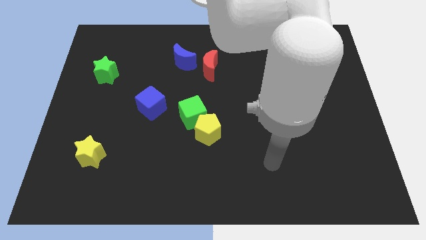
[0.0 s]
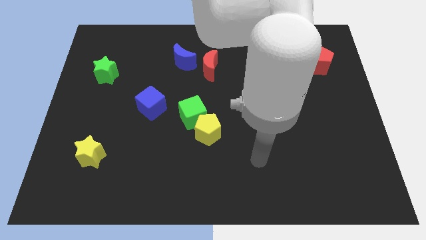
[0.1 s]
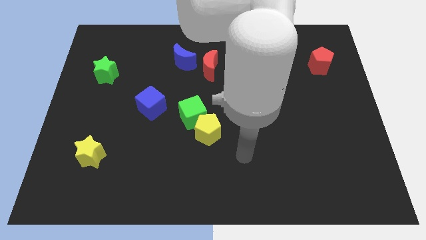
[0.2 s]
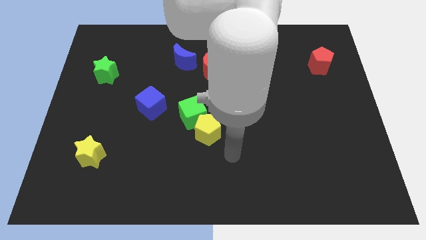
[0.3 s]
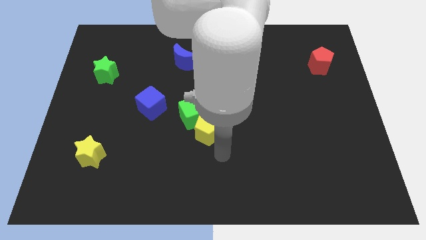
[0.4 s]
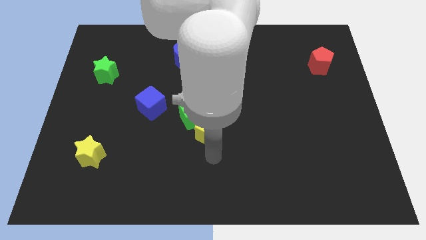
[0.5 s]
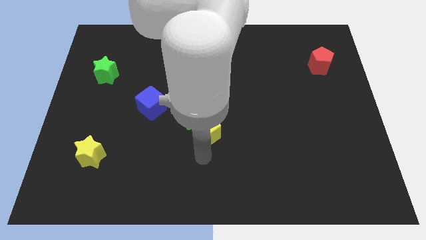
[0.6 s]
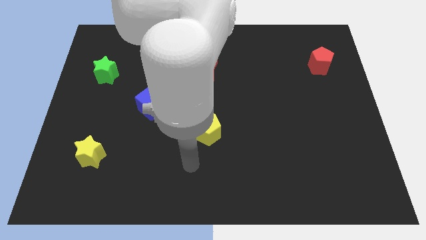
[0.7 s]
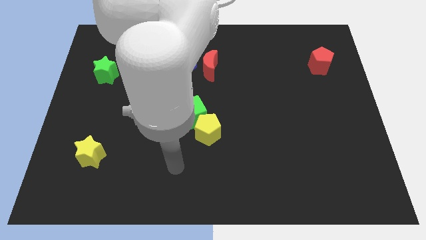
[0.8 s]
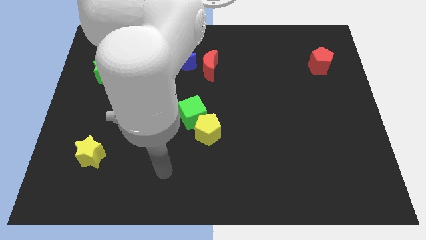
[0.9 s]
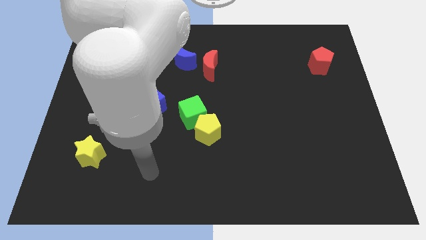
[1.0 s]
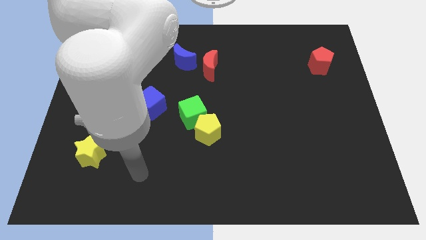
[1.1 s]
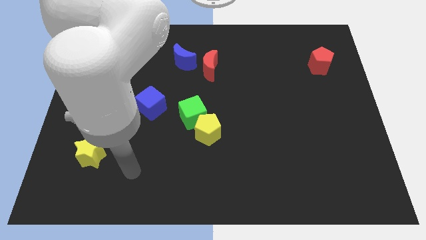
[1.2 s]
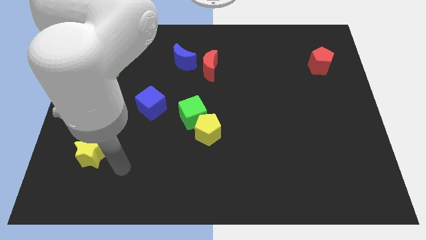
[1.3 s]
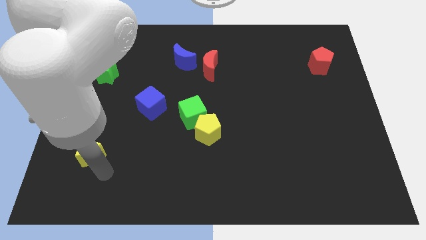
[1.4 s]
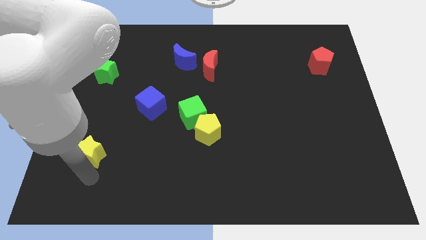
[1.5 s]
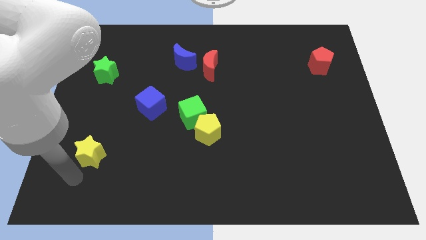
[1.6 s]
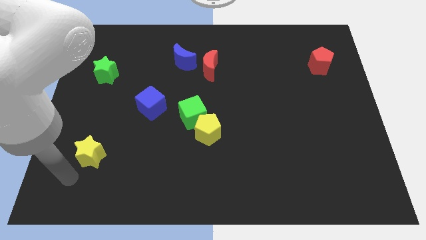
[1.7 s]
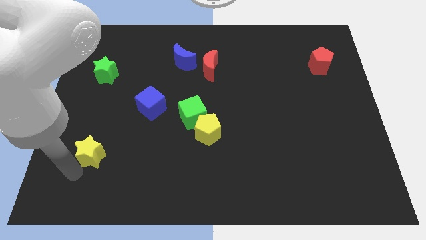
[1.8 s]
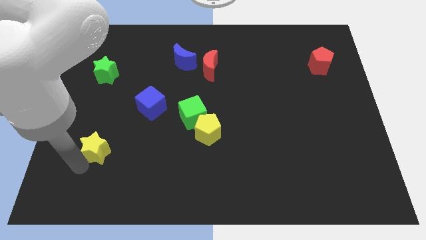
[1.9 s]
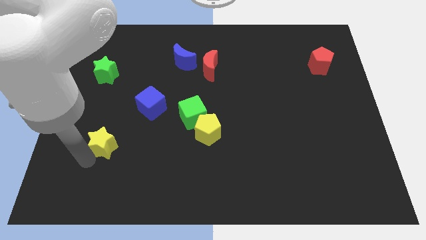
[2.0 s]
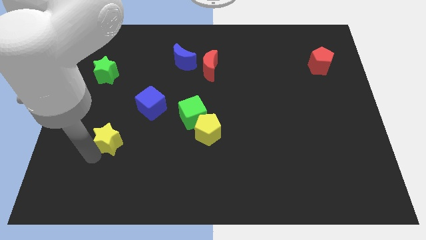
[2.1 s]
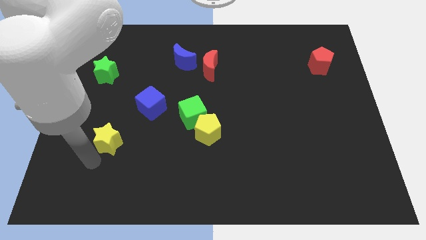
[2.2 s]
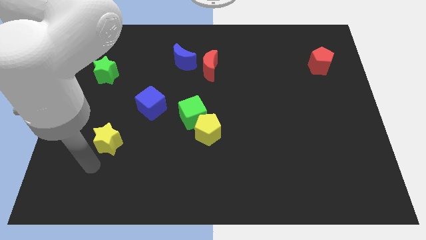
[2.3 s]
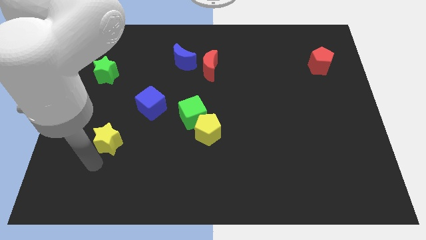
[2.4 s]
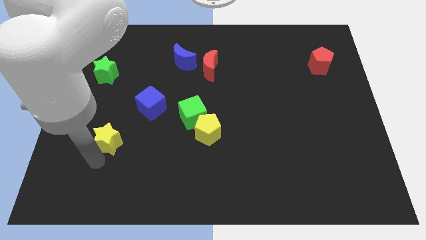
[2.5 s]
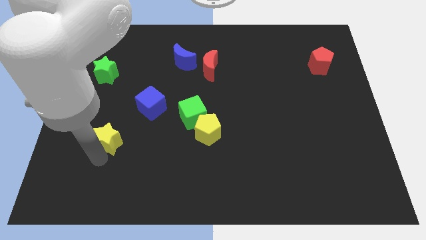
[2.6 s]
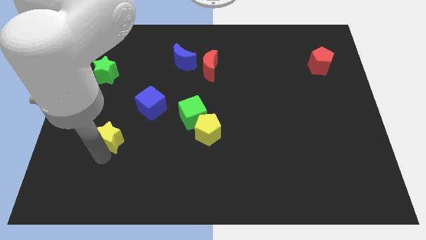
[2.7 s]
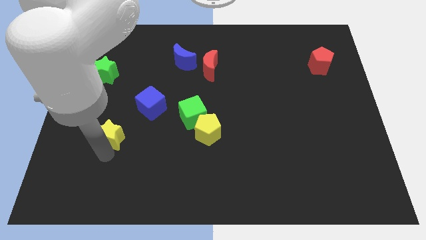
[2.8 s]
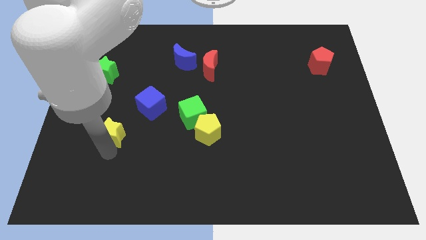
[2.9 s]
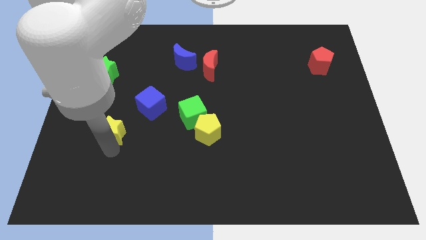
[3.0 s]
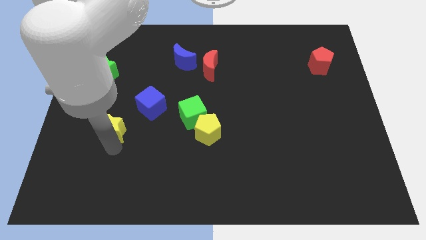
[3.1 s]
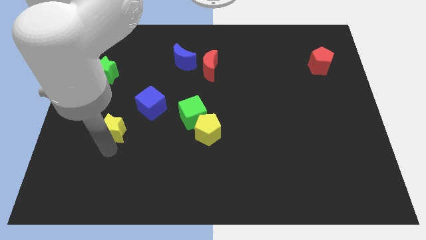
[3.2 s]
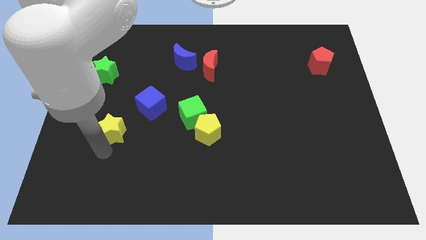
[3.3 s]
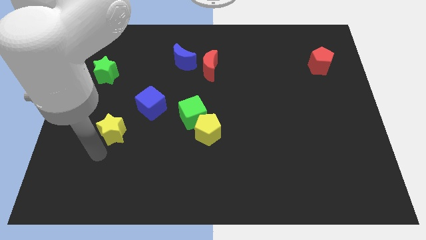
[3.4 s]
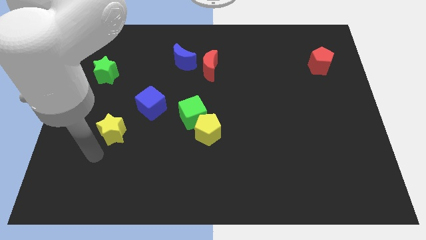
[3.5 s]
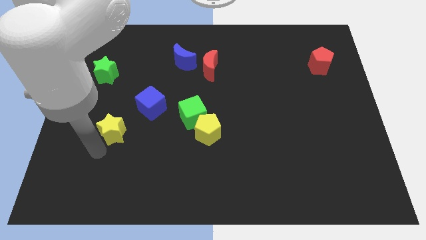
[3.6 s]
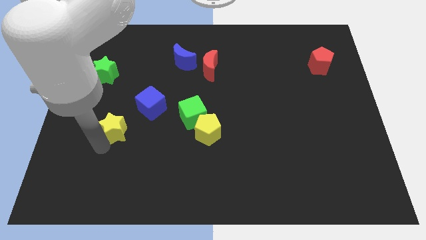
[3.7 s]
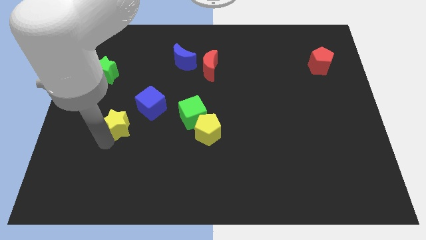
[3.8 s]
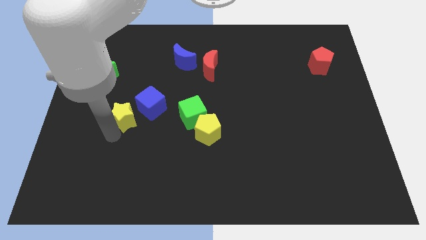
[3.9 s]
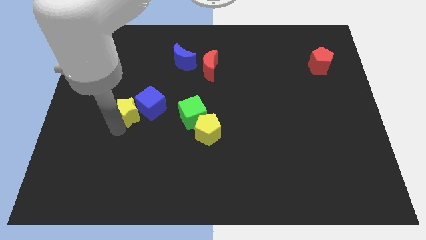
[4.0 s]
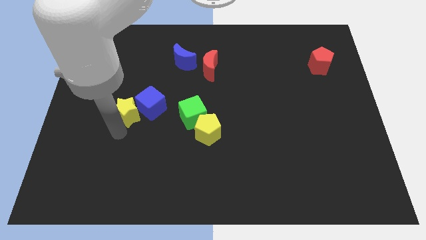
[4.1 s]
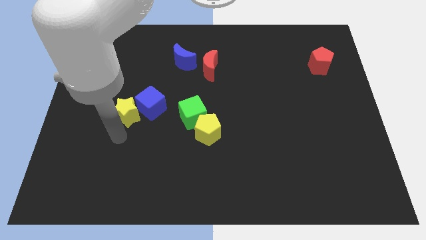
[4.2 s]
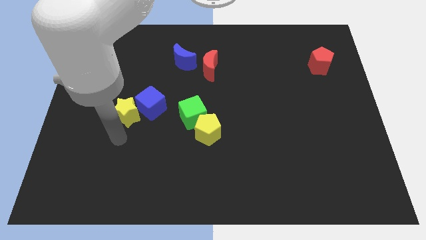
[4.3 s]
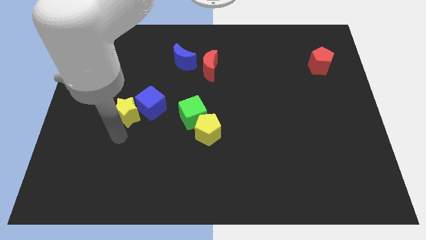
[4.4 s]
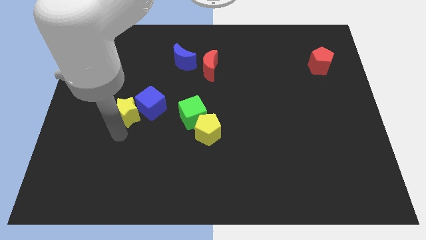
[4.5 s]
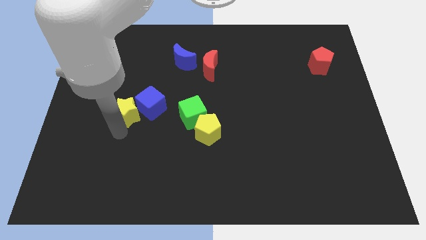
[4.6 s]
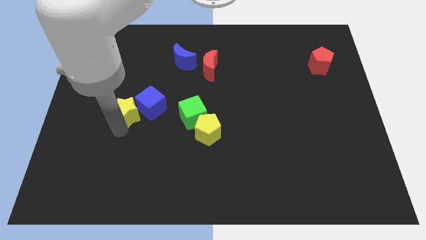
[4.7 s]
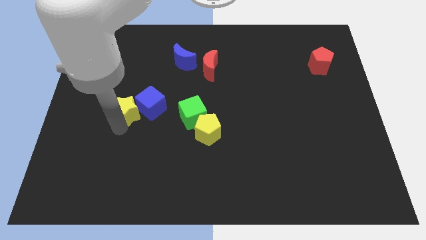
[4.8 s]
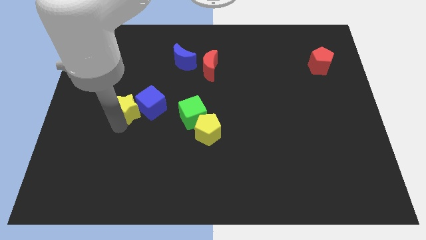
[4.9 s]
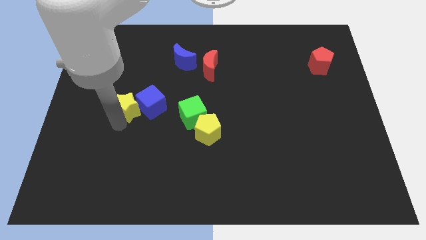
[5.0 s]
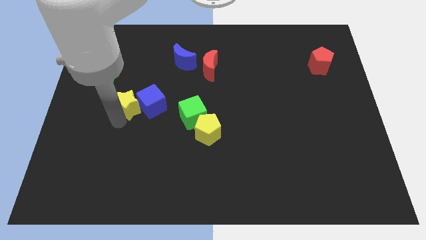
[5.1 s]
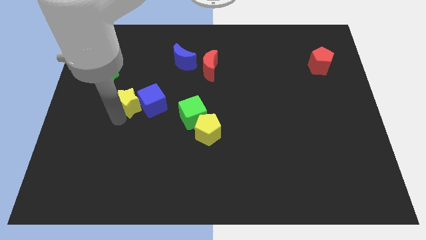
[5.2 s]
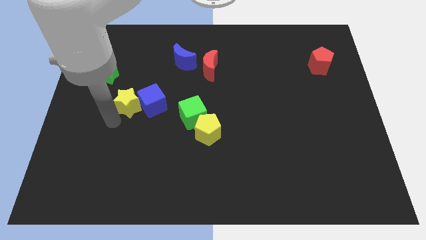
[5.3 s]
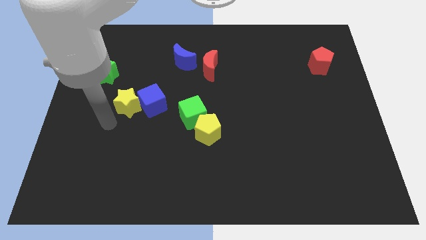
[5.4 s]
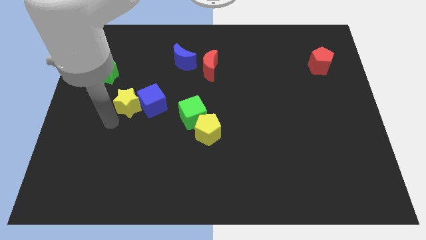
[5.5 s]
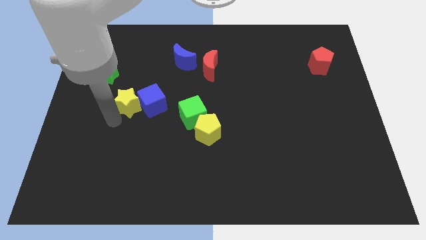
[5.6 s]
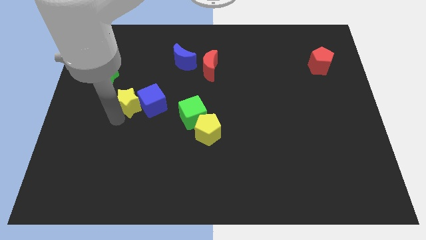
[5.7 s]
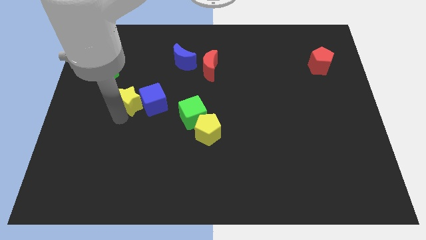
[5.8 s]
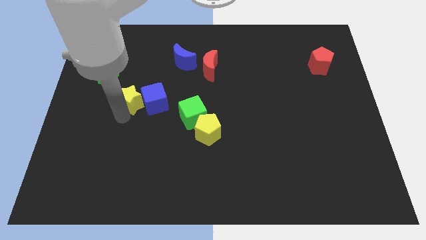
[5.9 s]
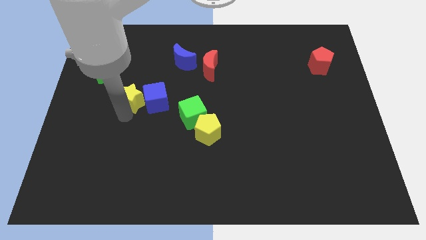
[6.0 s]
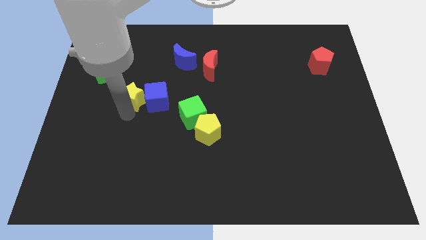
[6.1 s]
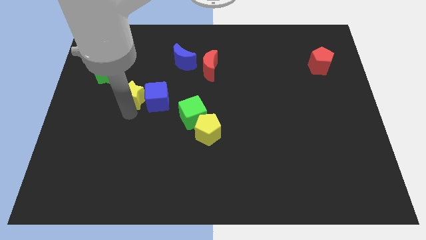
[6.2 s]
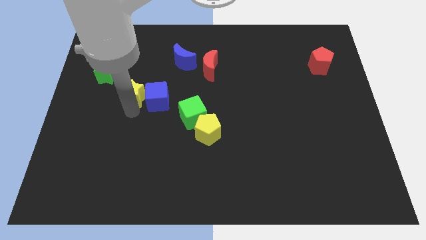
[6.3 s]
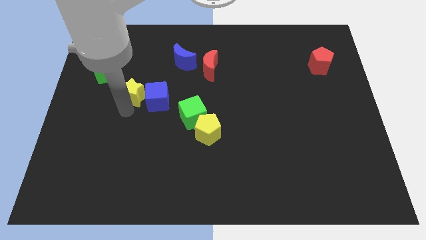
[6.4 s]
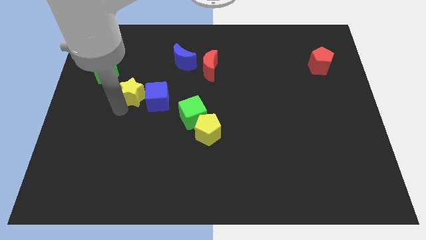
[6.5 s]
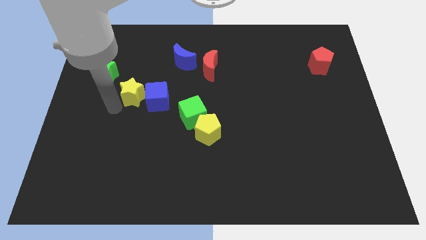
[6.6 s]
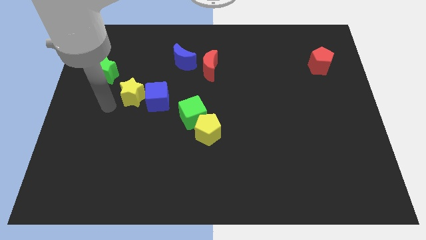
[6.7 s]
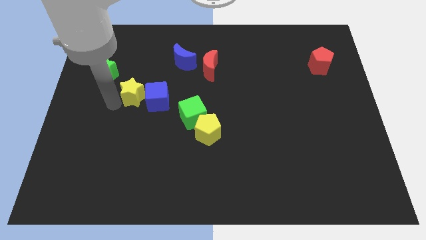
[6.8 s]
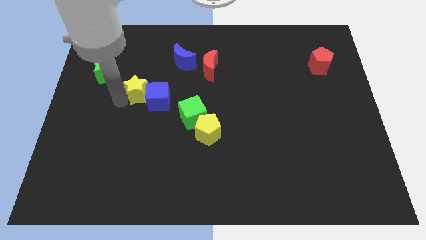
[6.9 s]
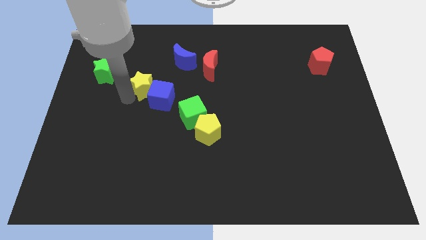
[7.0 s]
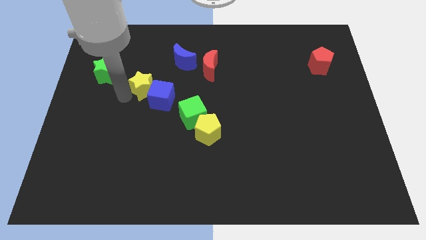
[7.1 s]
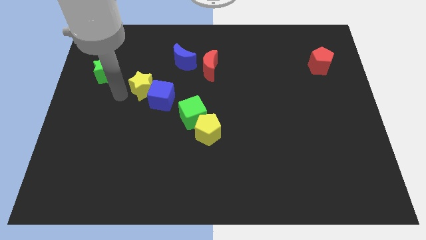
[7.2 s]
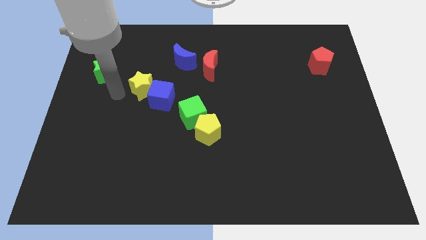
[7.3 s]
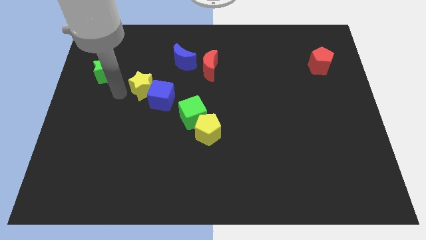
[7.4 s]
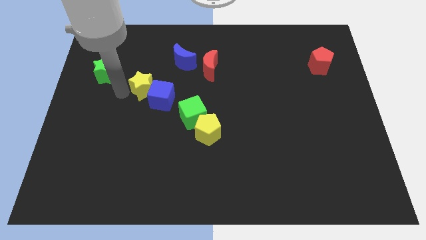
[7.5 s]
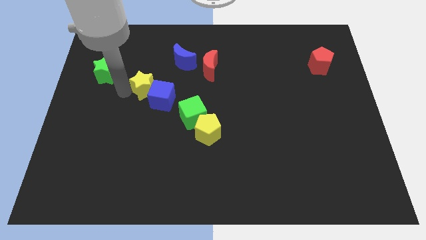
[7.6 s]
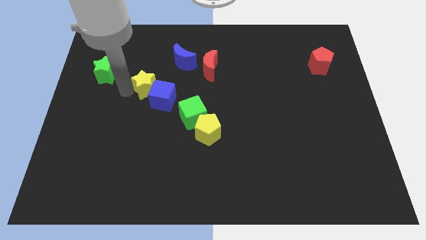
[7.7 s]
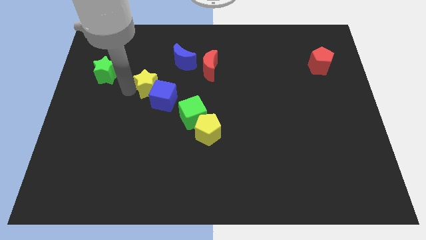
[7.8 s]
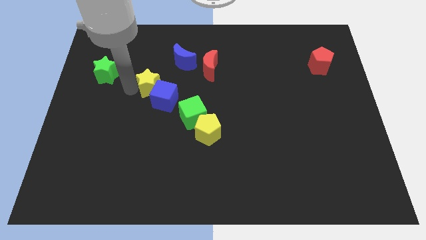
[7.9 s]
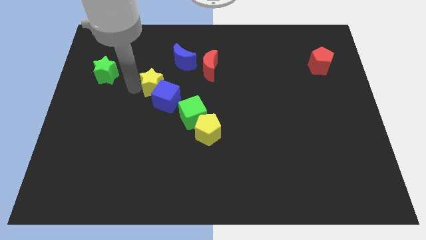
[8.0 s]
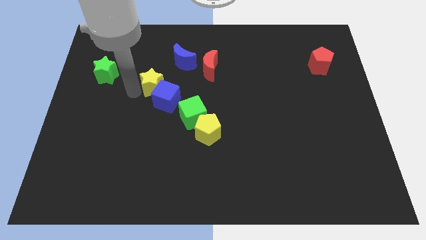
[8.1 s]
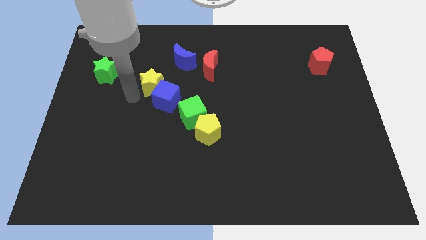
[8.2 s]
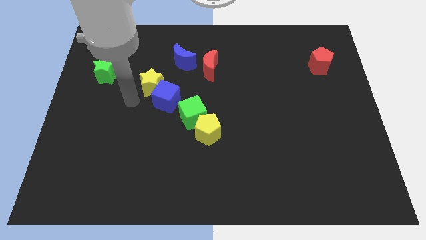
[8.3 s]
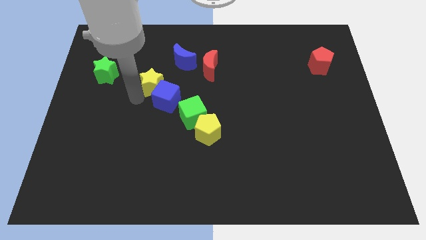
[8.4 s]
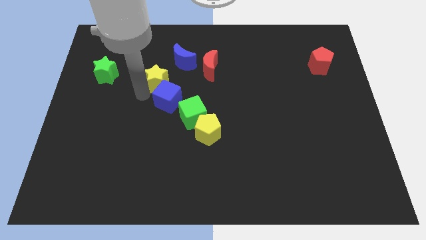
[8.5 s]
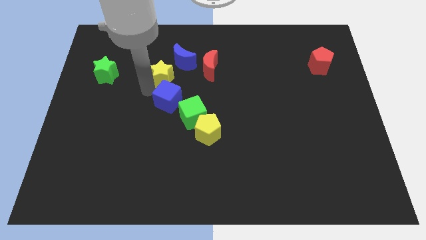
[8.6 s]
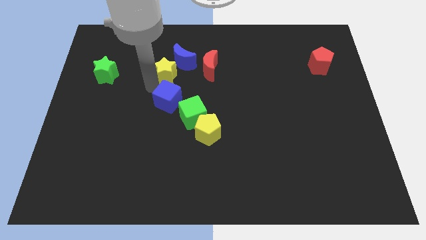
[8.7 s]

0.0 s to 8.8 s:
push the yellow star next to the blue moon
